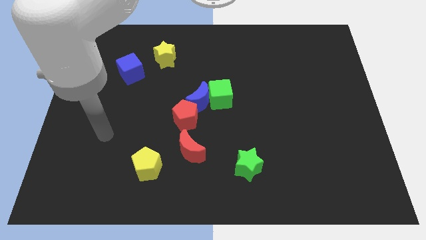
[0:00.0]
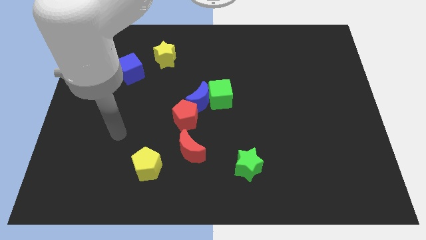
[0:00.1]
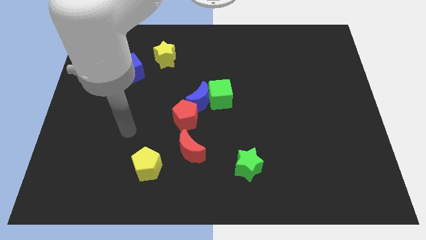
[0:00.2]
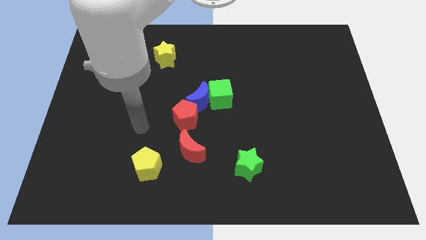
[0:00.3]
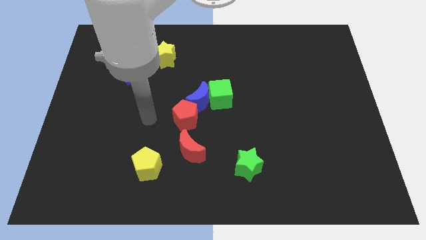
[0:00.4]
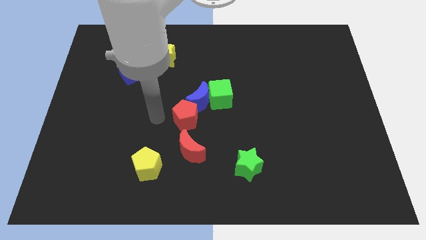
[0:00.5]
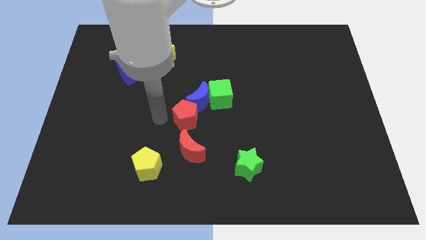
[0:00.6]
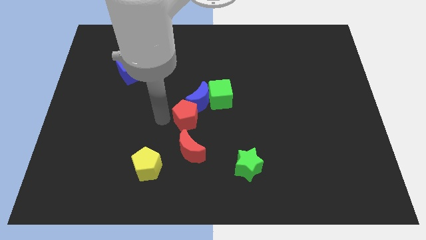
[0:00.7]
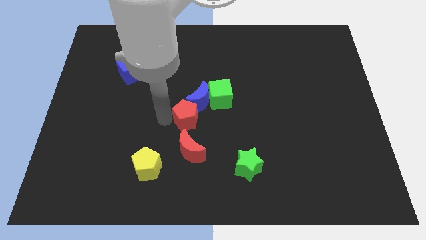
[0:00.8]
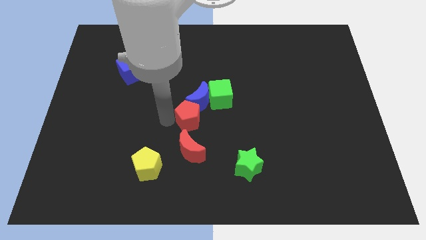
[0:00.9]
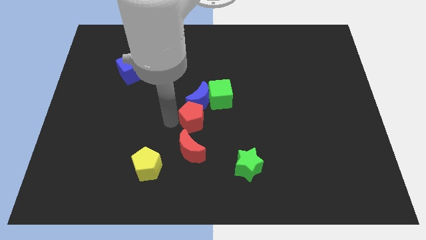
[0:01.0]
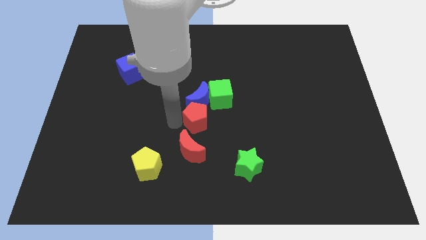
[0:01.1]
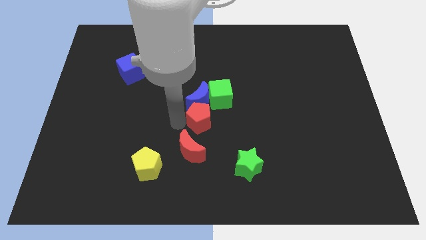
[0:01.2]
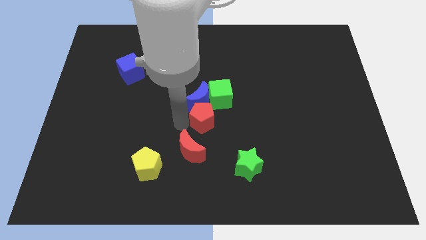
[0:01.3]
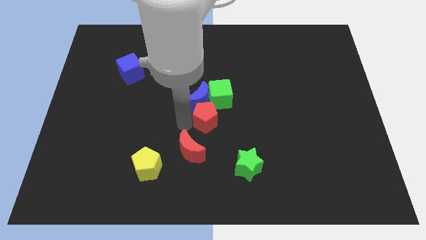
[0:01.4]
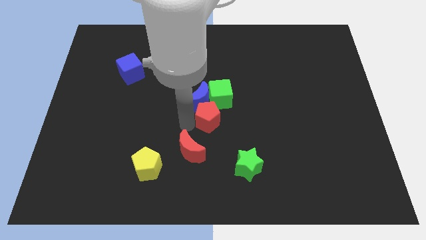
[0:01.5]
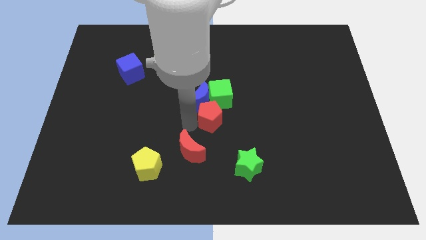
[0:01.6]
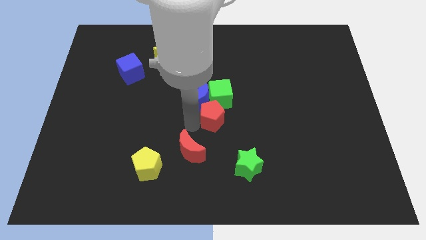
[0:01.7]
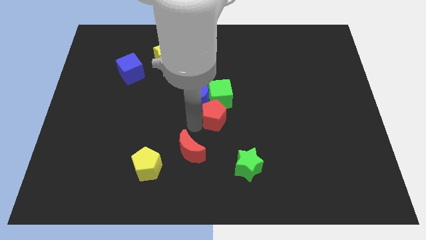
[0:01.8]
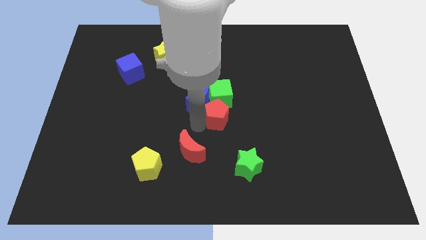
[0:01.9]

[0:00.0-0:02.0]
push the red pentagon right slightly

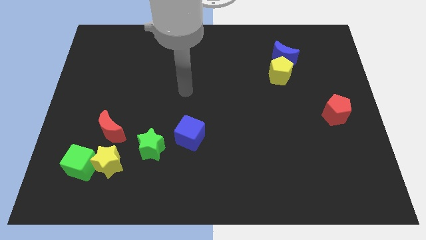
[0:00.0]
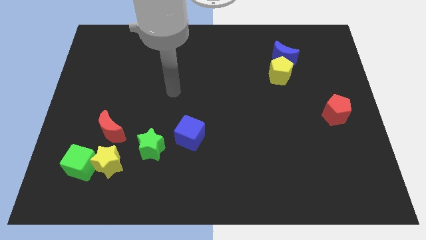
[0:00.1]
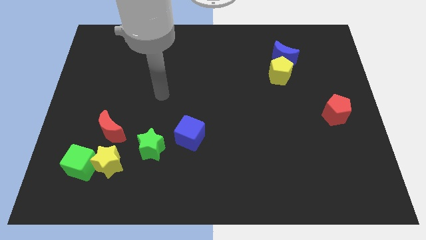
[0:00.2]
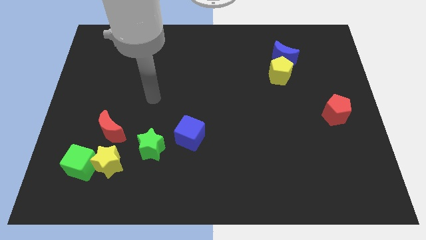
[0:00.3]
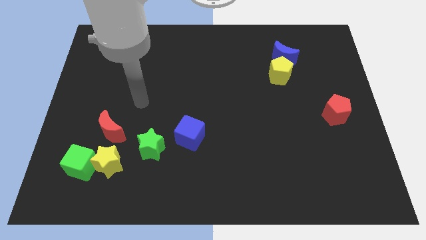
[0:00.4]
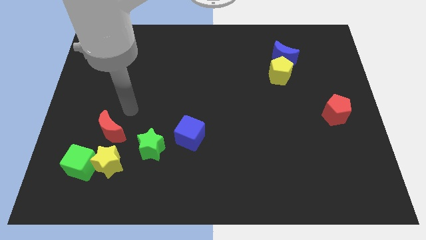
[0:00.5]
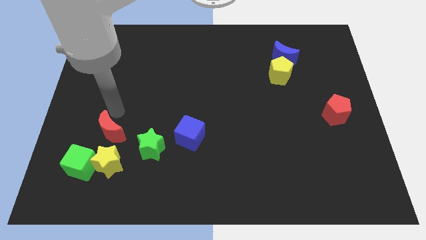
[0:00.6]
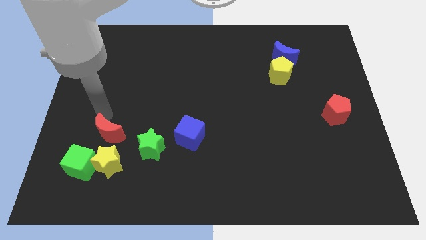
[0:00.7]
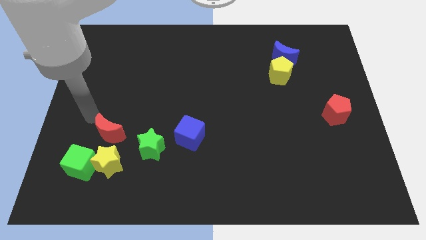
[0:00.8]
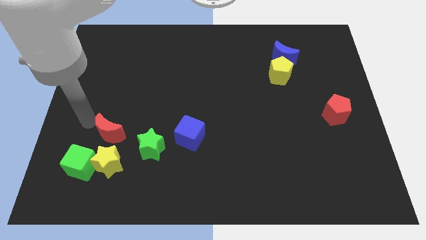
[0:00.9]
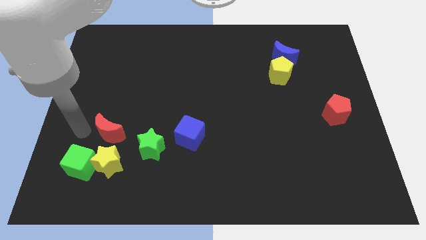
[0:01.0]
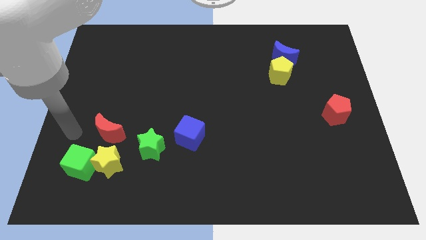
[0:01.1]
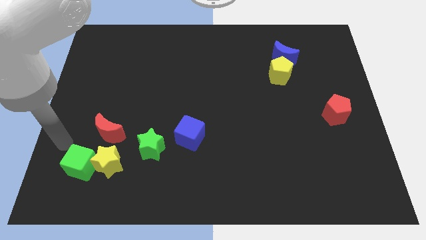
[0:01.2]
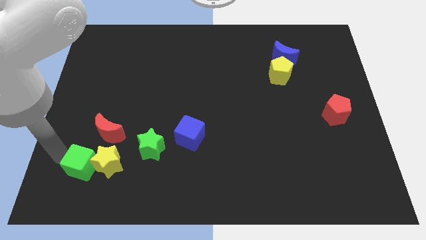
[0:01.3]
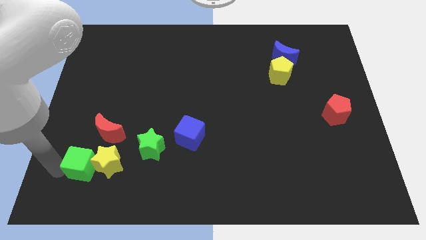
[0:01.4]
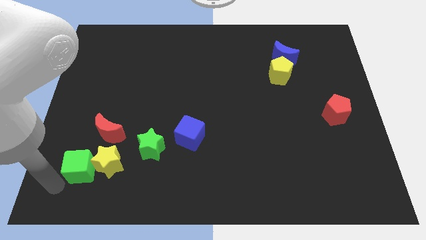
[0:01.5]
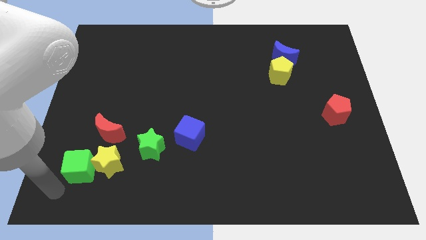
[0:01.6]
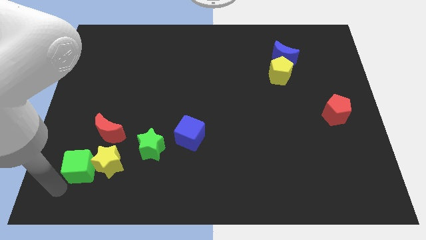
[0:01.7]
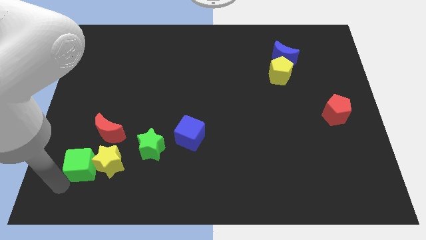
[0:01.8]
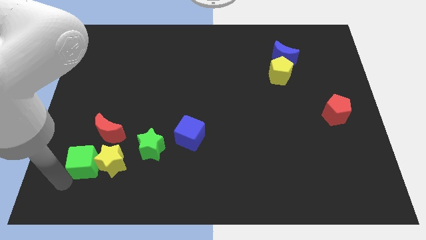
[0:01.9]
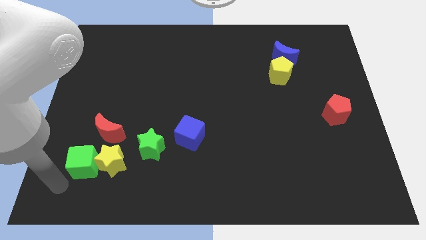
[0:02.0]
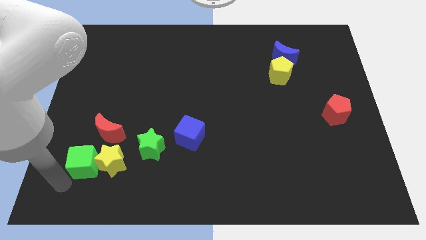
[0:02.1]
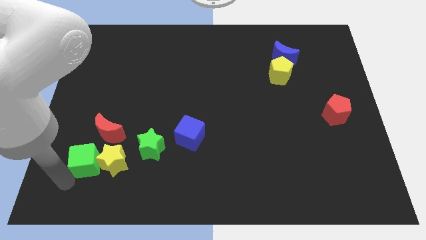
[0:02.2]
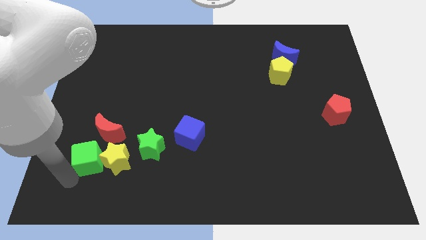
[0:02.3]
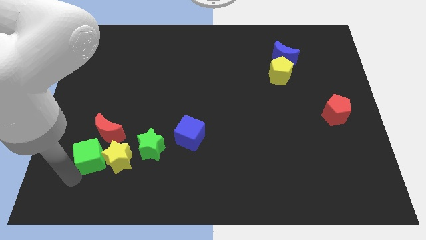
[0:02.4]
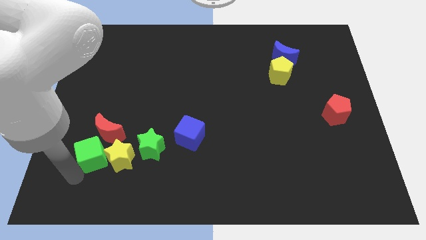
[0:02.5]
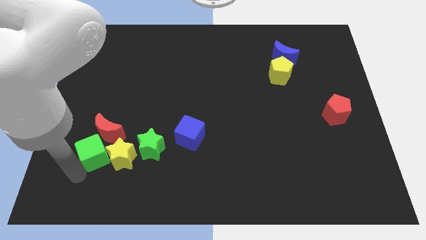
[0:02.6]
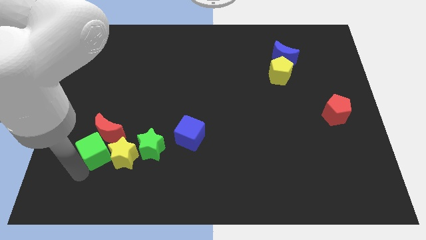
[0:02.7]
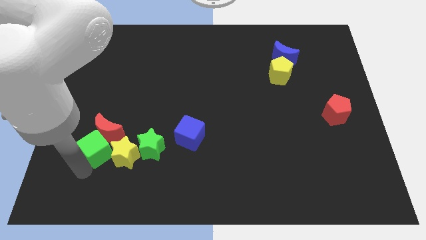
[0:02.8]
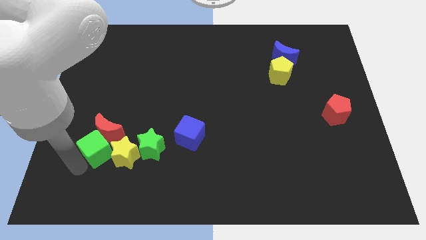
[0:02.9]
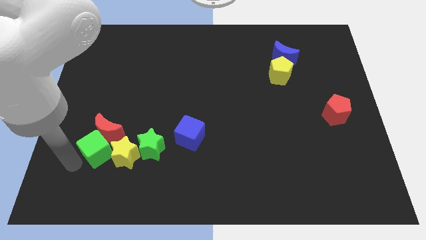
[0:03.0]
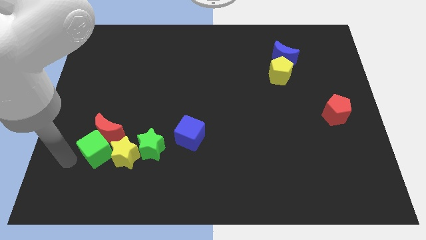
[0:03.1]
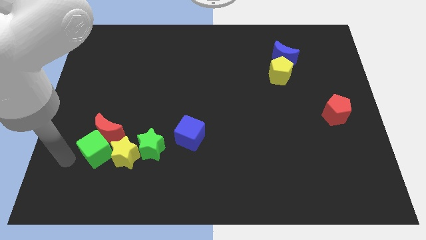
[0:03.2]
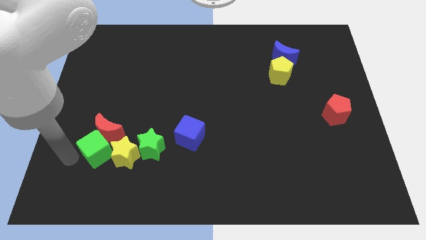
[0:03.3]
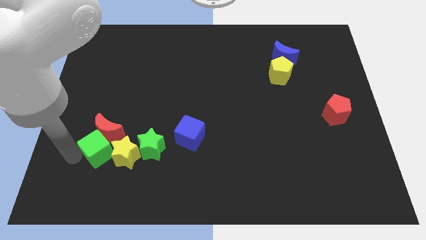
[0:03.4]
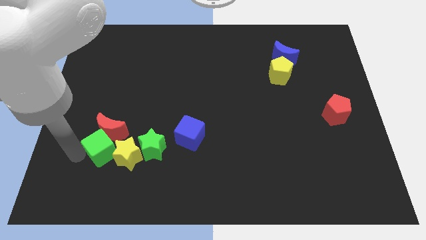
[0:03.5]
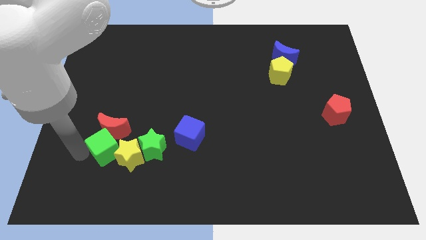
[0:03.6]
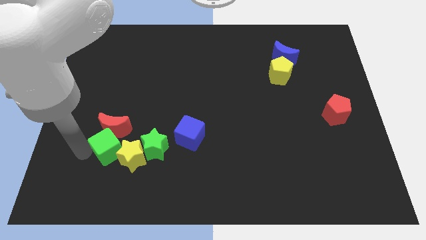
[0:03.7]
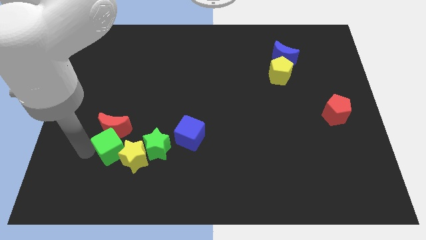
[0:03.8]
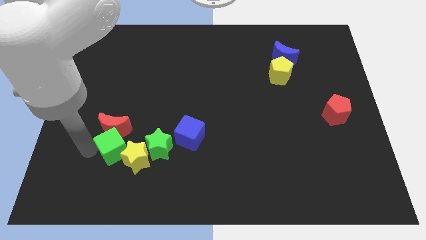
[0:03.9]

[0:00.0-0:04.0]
slide the green cube up and to the right diagonally a little bit

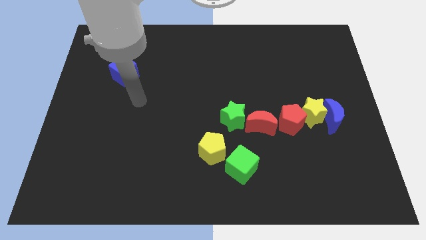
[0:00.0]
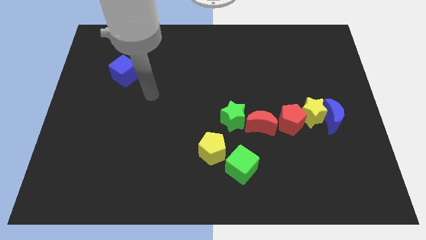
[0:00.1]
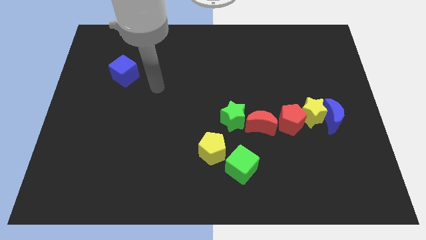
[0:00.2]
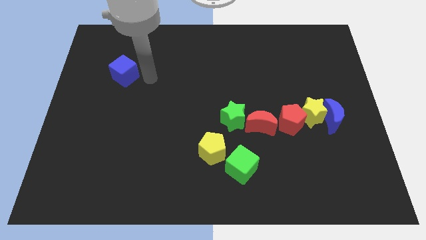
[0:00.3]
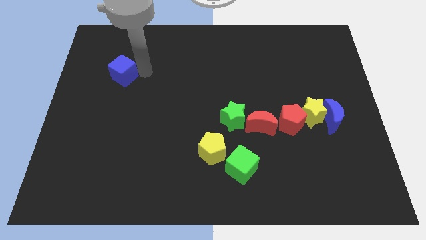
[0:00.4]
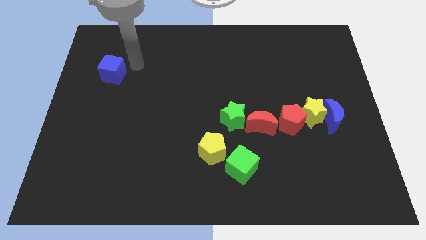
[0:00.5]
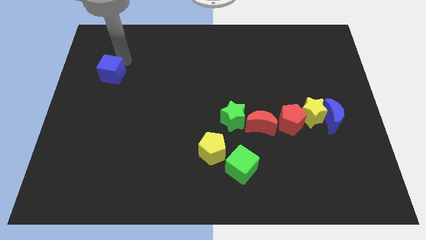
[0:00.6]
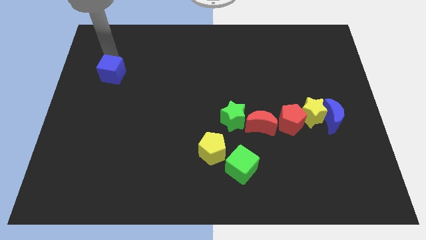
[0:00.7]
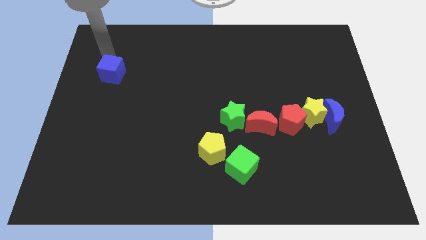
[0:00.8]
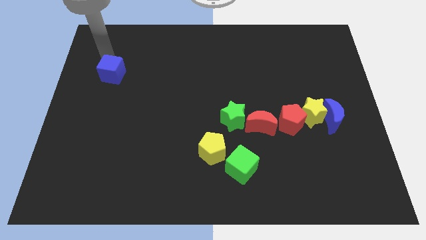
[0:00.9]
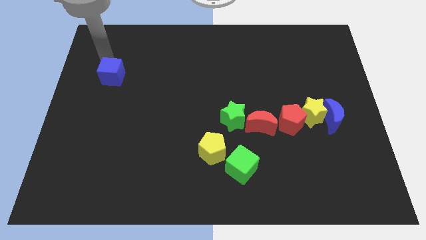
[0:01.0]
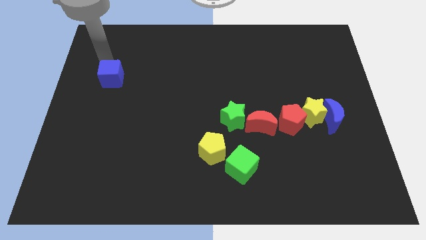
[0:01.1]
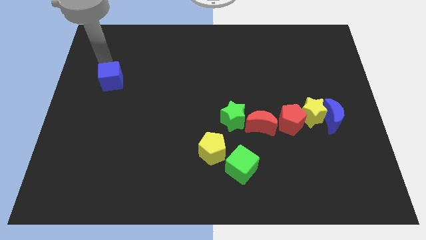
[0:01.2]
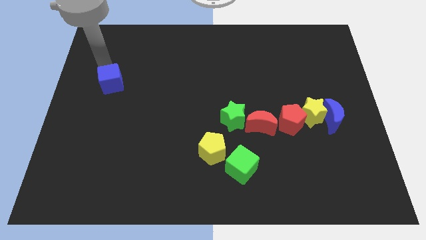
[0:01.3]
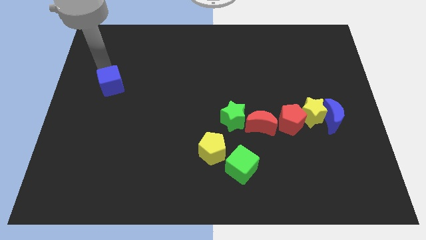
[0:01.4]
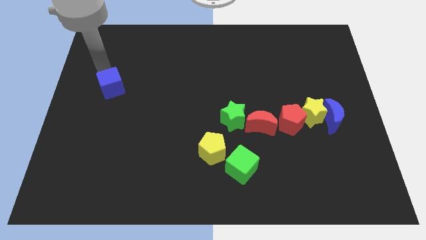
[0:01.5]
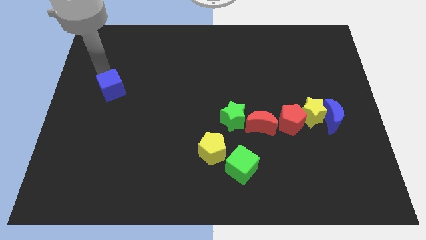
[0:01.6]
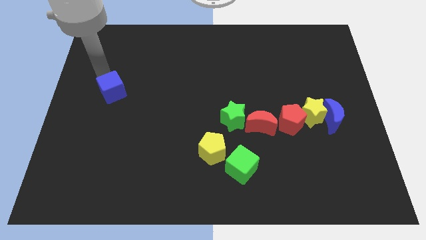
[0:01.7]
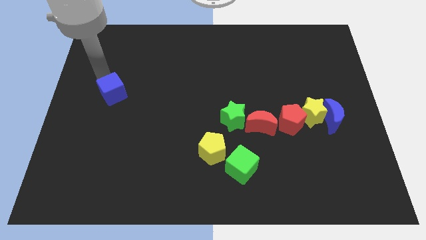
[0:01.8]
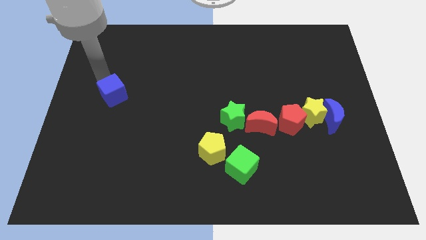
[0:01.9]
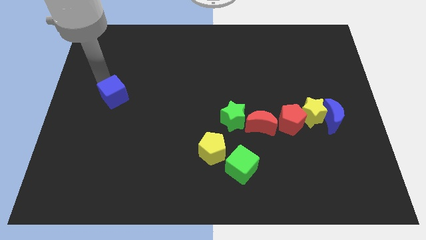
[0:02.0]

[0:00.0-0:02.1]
push the blue cube a little down
